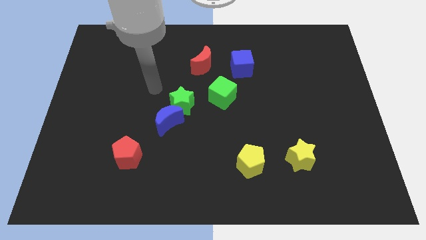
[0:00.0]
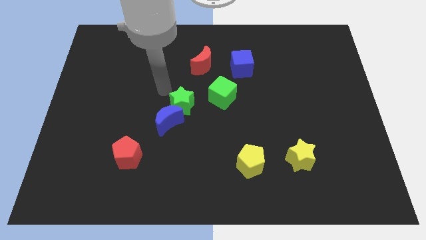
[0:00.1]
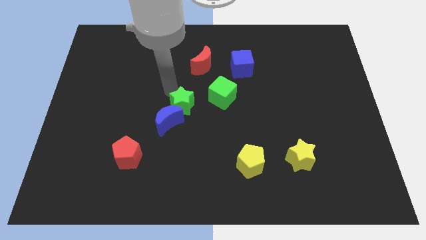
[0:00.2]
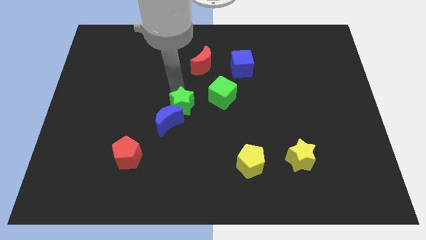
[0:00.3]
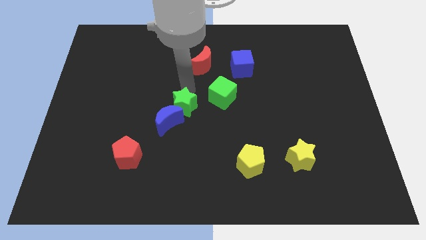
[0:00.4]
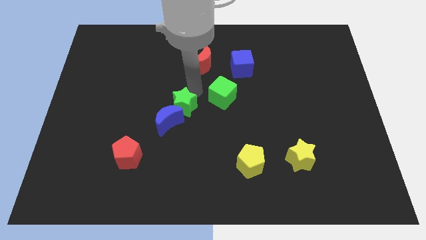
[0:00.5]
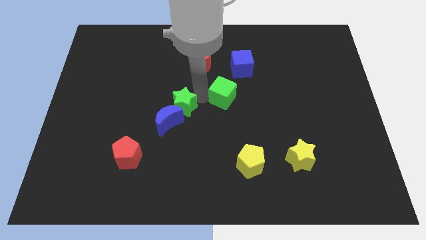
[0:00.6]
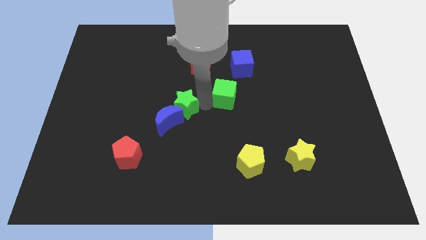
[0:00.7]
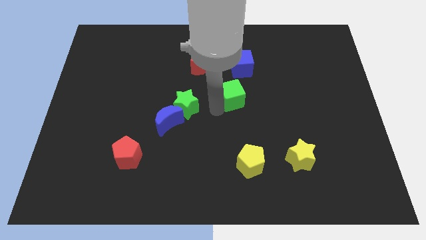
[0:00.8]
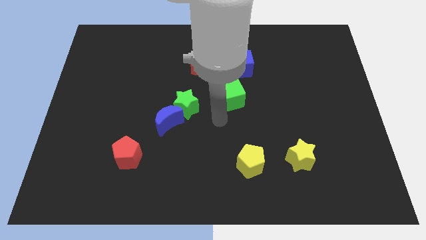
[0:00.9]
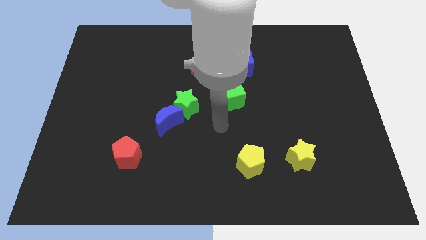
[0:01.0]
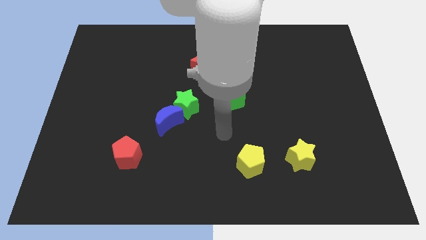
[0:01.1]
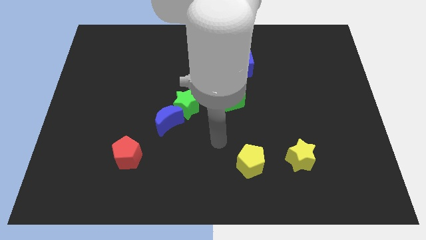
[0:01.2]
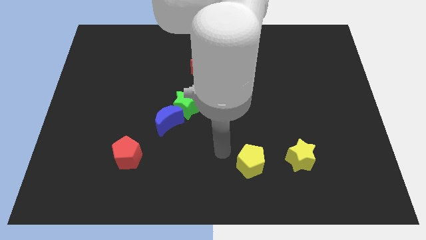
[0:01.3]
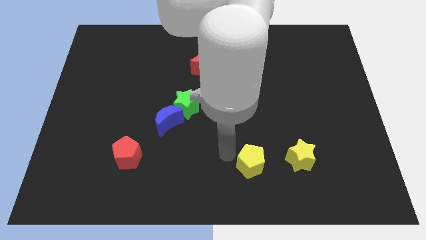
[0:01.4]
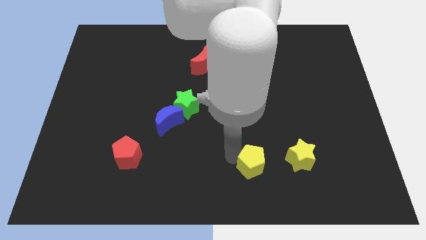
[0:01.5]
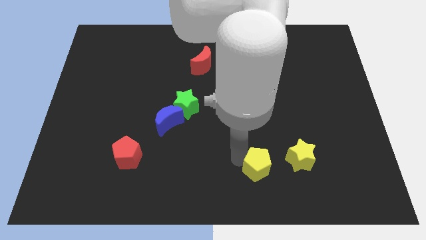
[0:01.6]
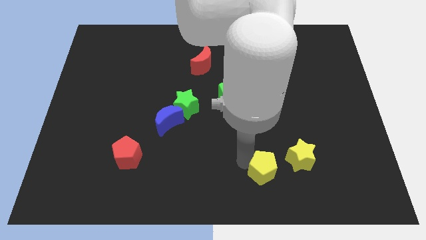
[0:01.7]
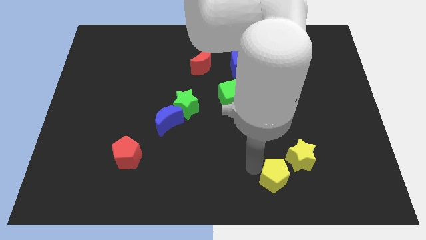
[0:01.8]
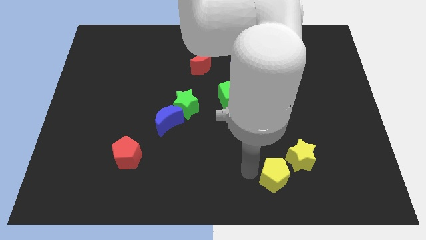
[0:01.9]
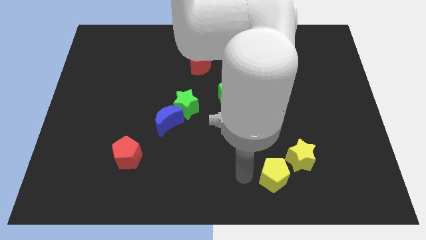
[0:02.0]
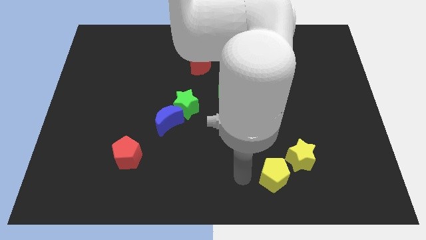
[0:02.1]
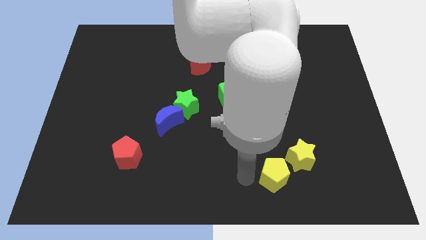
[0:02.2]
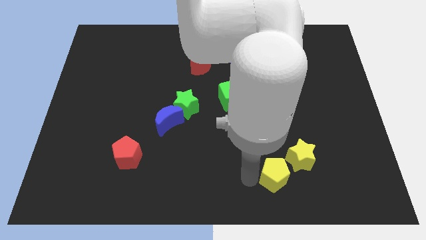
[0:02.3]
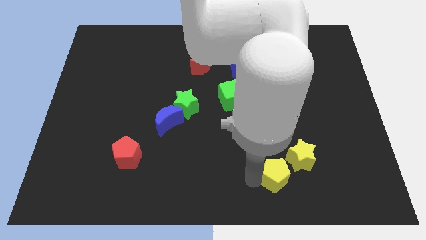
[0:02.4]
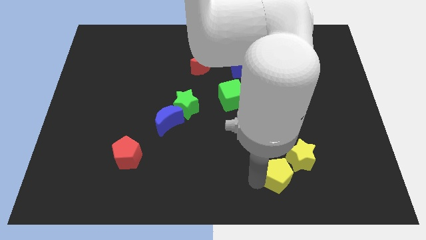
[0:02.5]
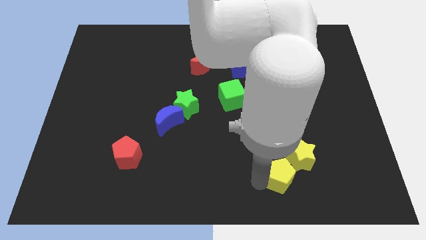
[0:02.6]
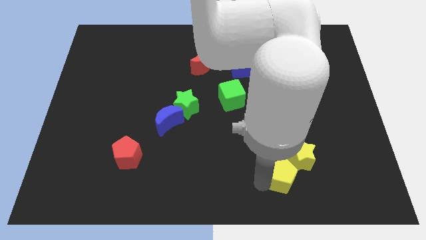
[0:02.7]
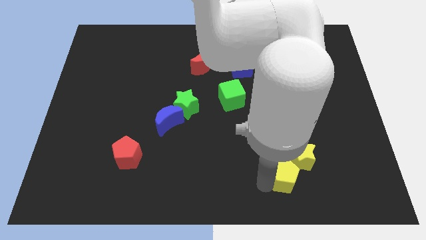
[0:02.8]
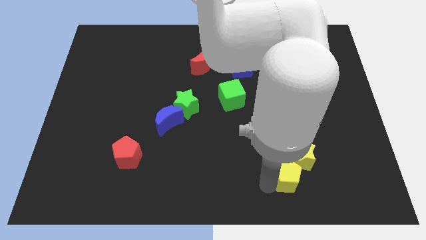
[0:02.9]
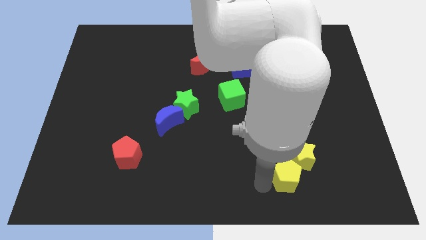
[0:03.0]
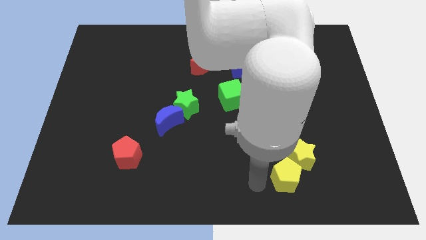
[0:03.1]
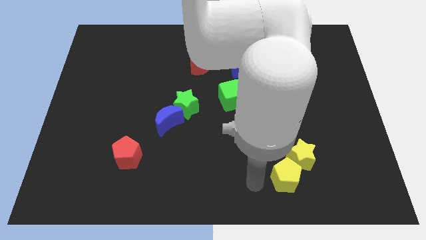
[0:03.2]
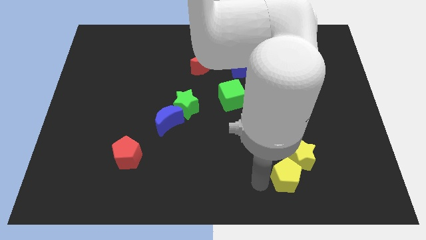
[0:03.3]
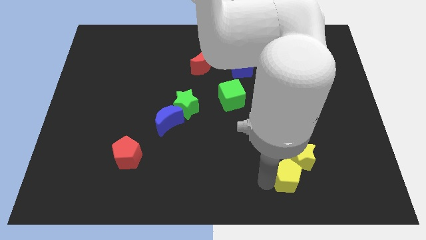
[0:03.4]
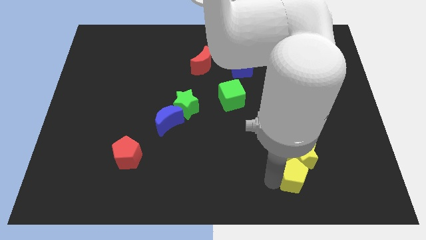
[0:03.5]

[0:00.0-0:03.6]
slightly push the yellow pentagon right

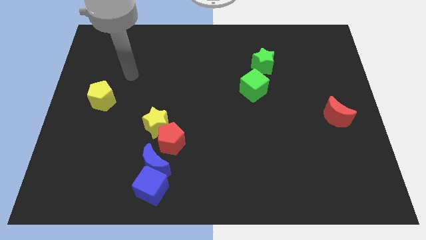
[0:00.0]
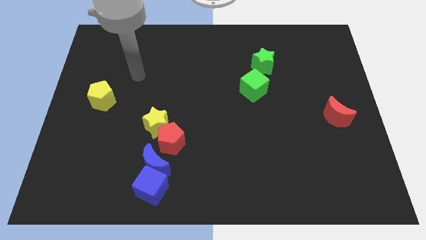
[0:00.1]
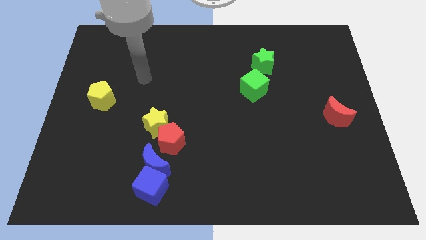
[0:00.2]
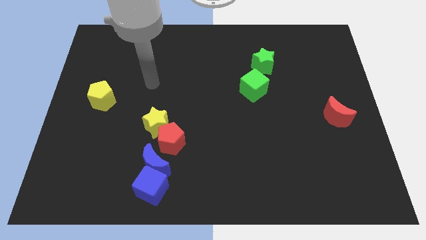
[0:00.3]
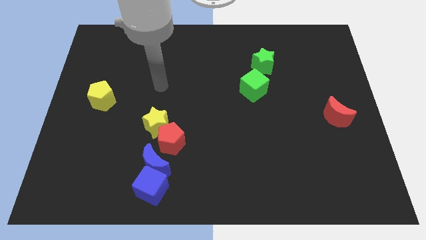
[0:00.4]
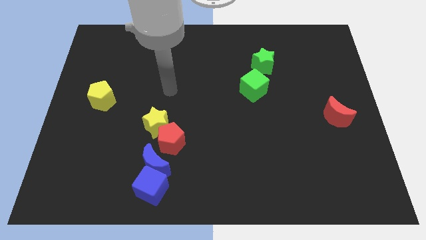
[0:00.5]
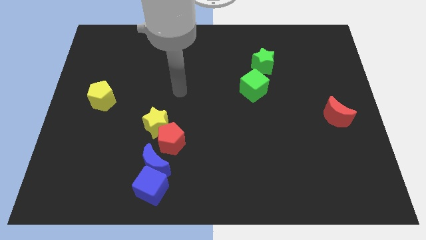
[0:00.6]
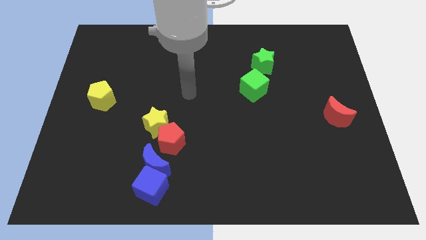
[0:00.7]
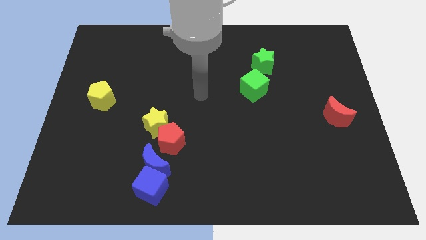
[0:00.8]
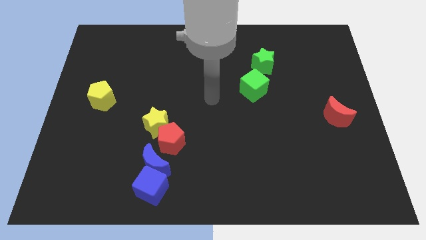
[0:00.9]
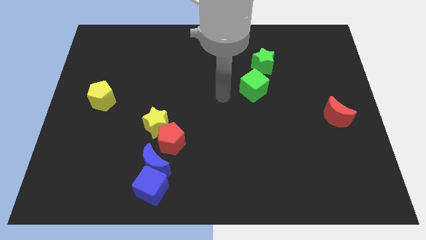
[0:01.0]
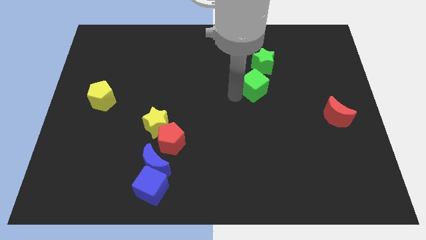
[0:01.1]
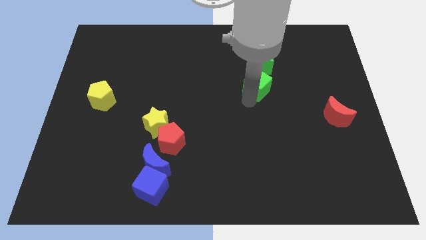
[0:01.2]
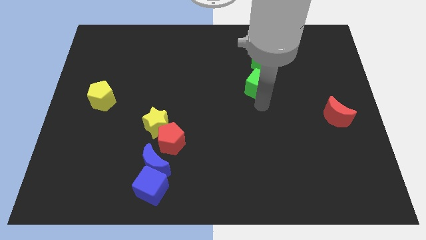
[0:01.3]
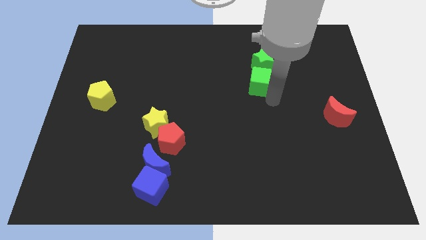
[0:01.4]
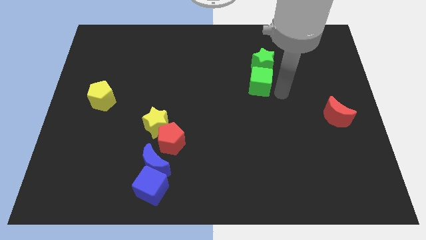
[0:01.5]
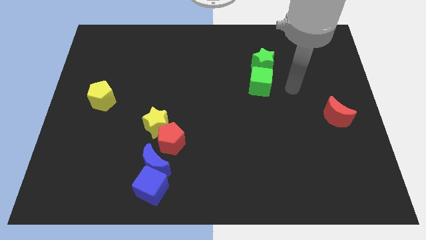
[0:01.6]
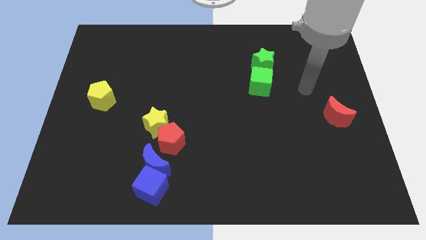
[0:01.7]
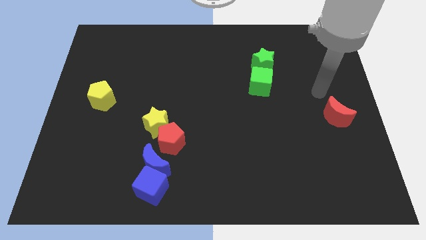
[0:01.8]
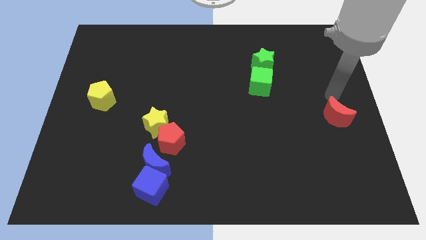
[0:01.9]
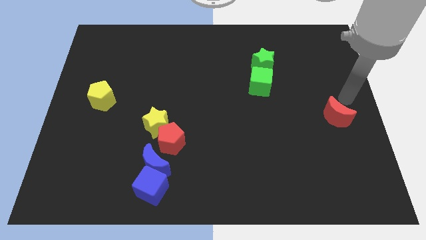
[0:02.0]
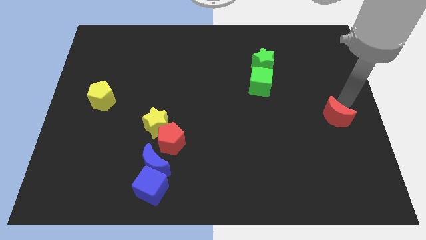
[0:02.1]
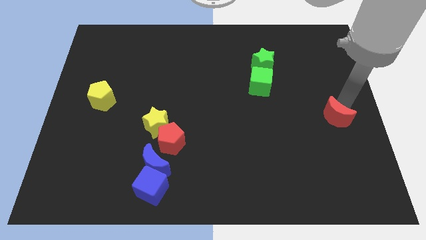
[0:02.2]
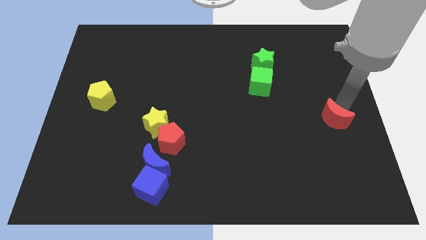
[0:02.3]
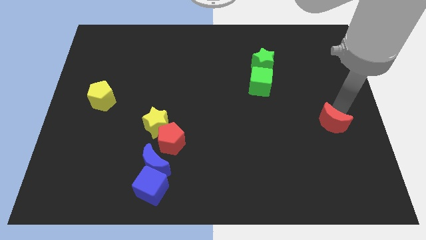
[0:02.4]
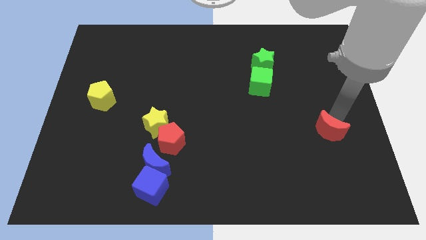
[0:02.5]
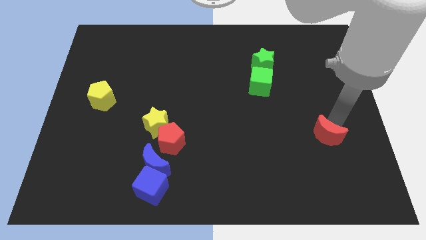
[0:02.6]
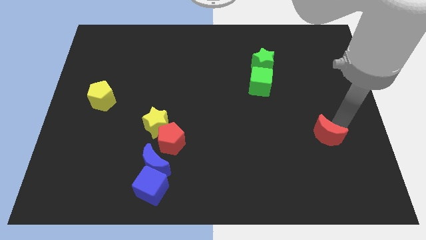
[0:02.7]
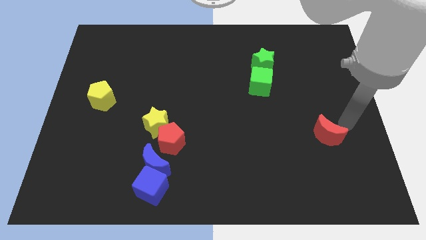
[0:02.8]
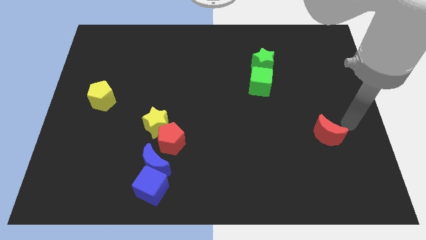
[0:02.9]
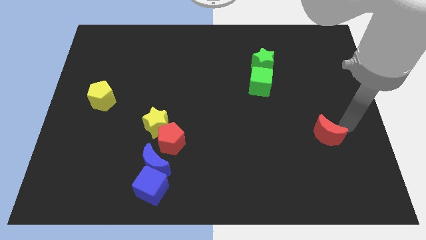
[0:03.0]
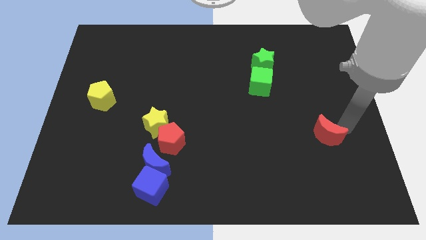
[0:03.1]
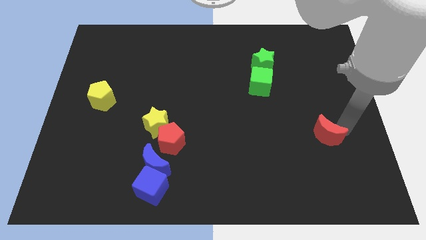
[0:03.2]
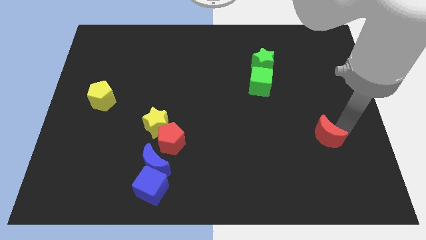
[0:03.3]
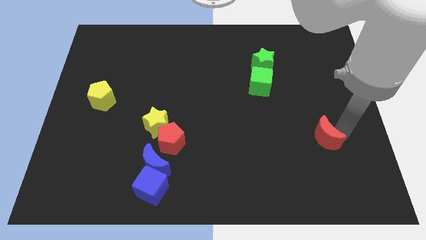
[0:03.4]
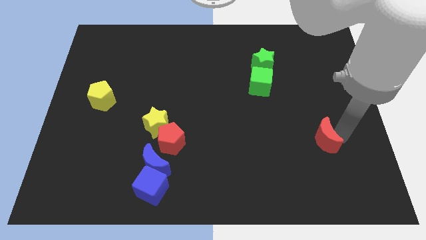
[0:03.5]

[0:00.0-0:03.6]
move the red moon diagonally down and left a bit

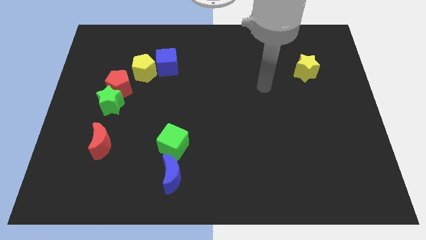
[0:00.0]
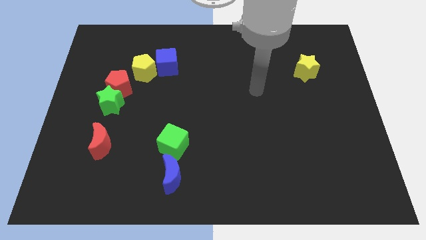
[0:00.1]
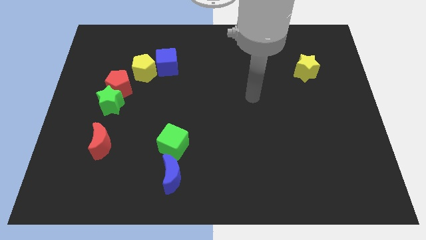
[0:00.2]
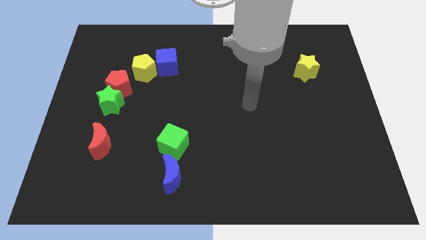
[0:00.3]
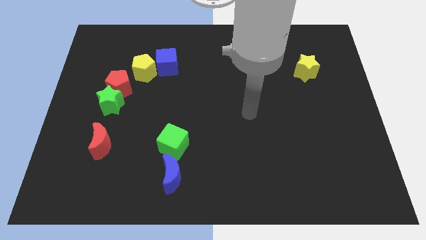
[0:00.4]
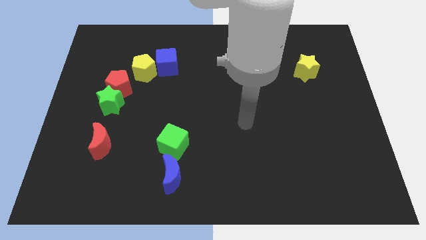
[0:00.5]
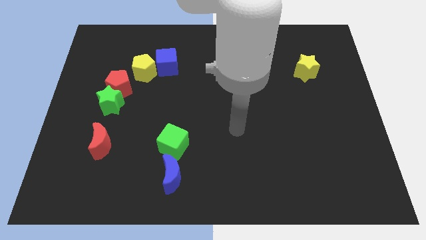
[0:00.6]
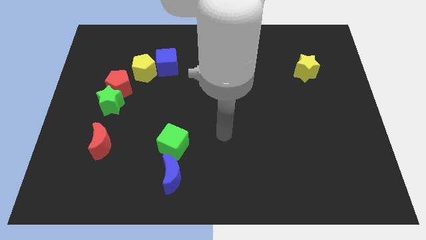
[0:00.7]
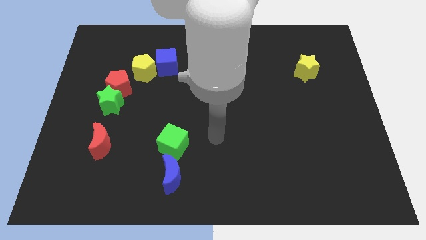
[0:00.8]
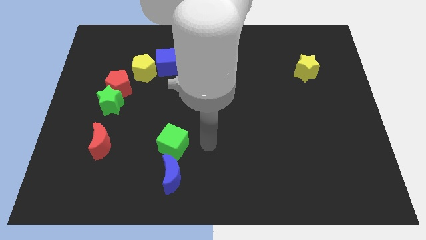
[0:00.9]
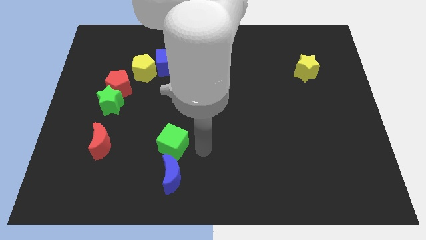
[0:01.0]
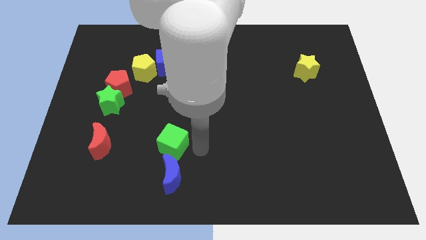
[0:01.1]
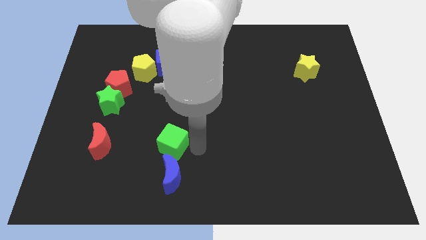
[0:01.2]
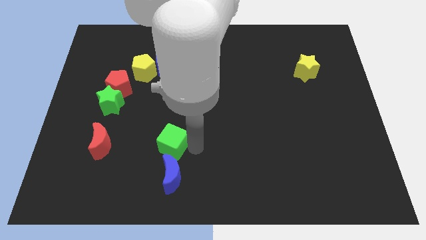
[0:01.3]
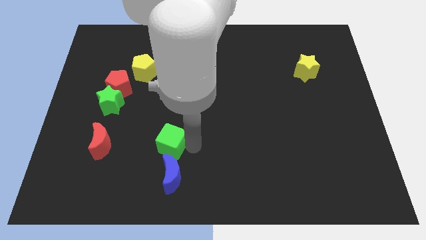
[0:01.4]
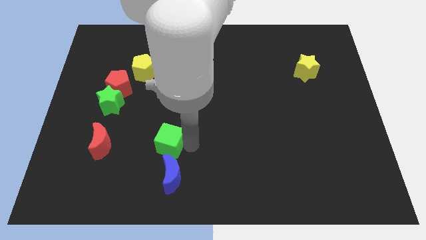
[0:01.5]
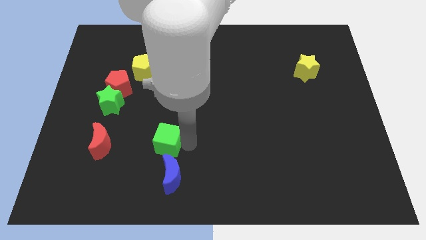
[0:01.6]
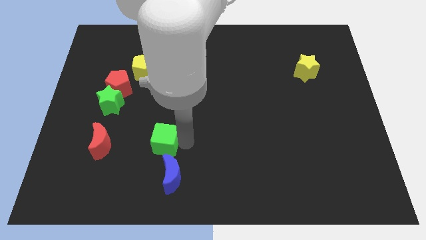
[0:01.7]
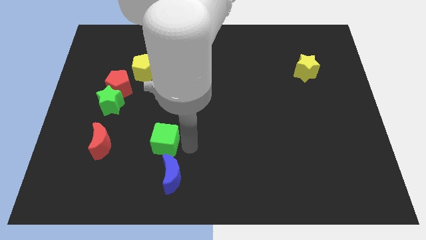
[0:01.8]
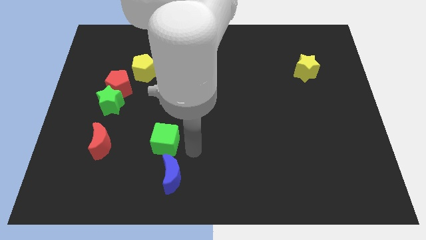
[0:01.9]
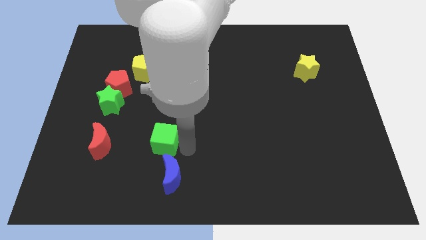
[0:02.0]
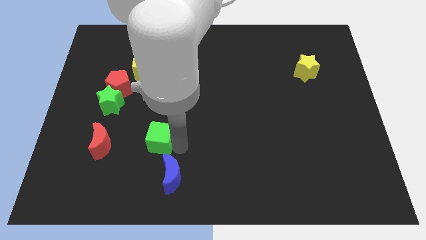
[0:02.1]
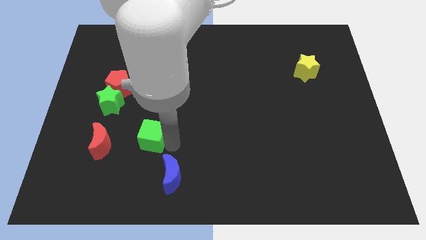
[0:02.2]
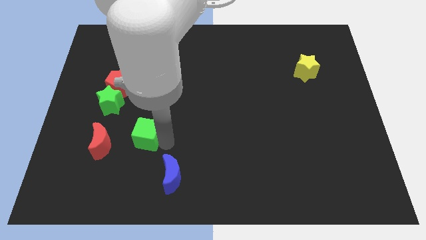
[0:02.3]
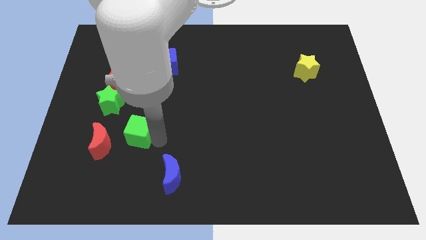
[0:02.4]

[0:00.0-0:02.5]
slide the green cube to the left a bit
